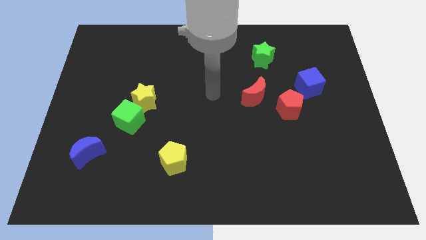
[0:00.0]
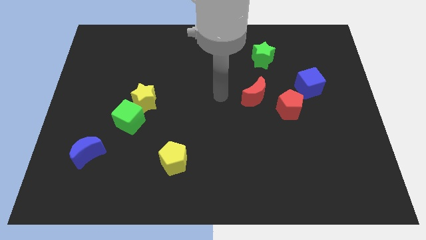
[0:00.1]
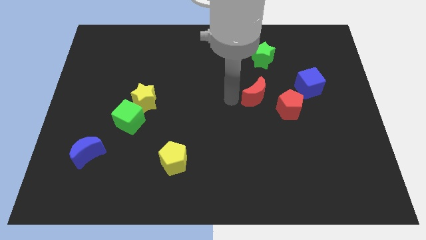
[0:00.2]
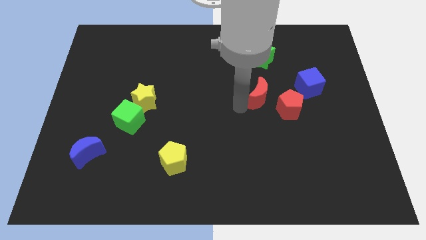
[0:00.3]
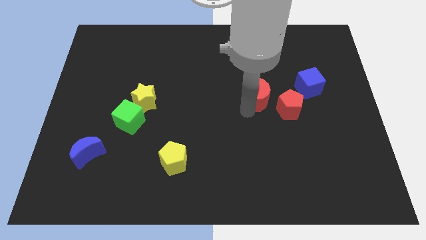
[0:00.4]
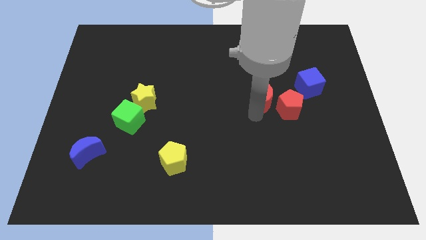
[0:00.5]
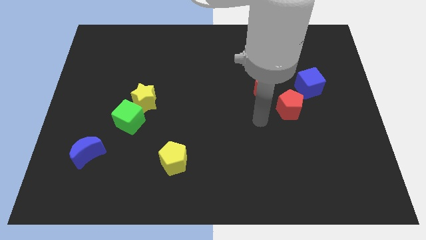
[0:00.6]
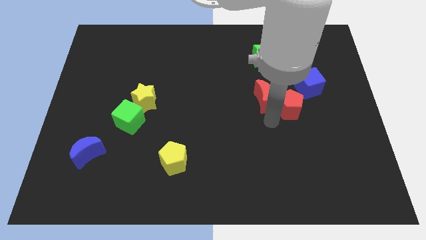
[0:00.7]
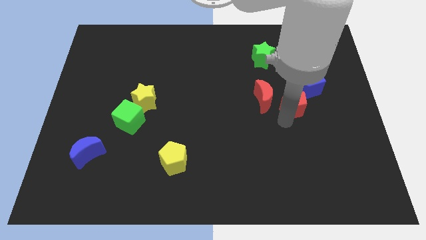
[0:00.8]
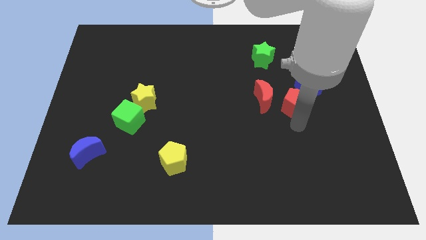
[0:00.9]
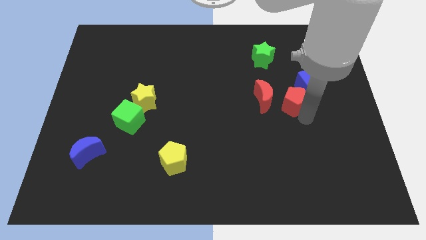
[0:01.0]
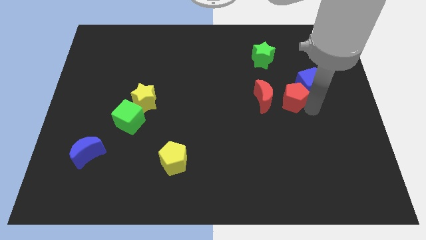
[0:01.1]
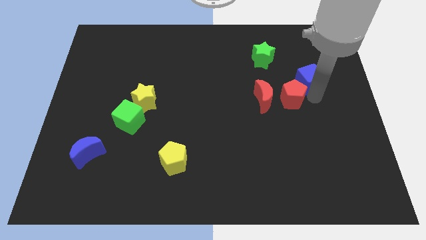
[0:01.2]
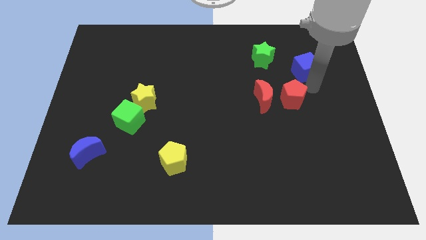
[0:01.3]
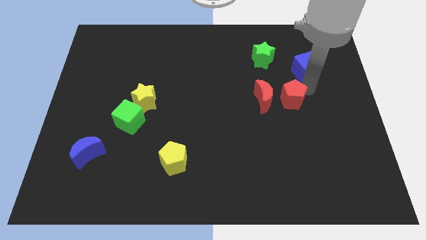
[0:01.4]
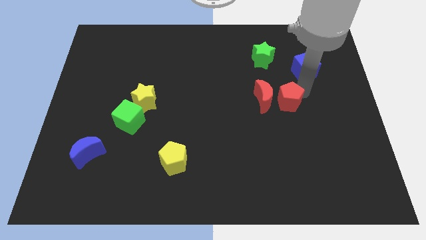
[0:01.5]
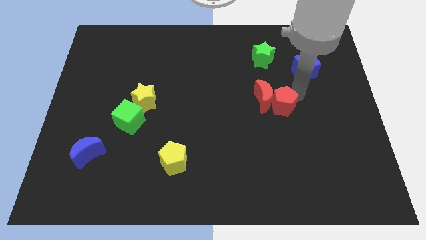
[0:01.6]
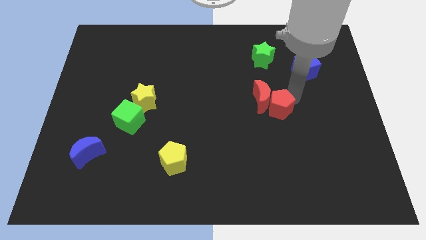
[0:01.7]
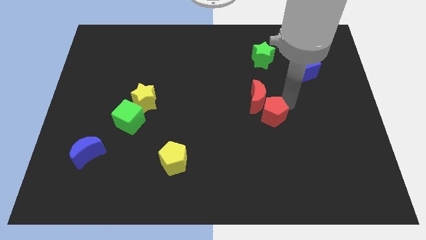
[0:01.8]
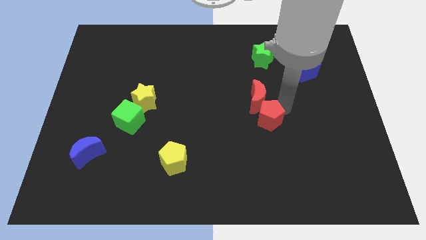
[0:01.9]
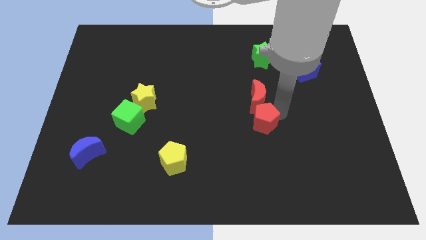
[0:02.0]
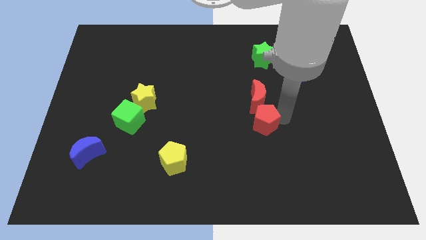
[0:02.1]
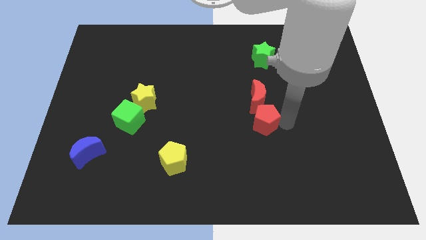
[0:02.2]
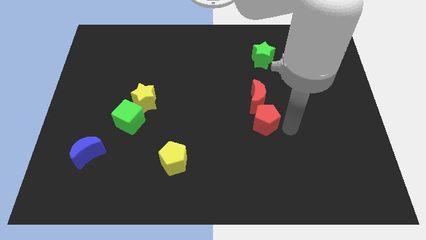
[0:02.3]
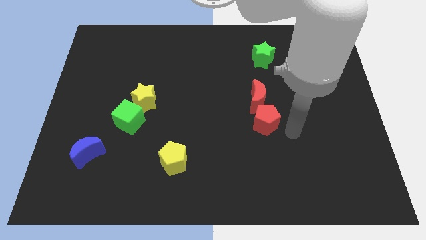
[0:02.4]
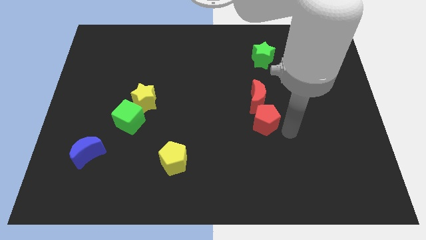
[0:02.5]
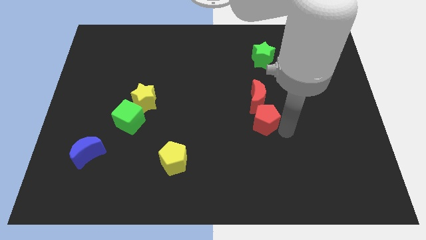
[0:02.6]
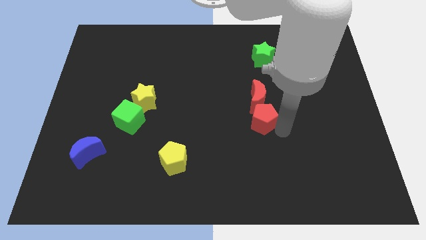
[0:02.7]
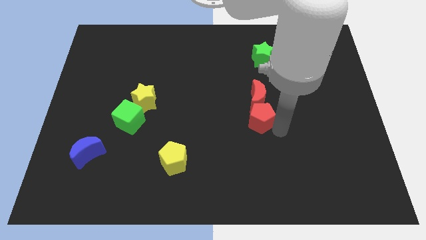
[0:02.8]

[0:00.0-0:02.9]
move the red pentagon to the left slightly

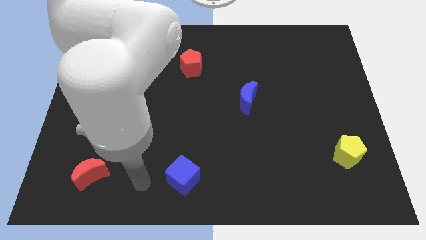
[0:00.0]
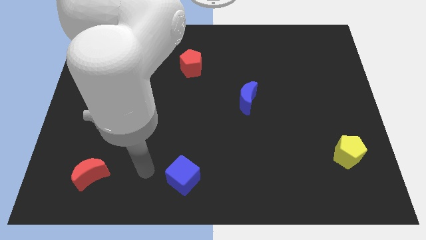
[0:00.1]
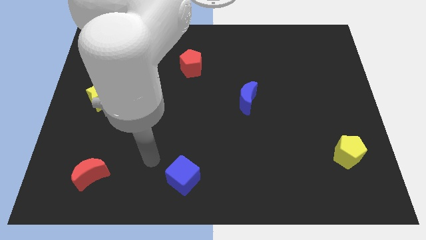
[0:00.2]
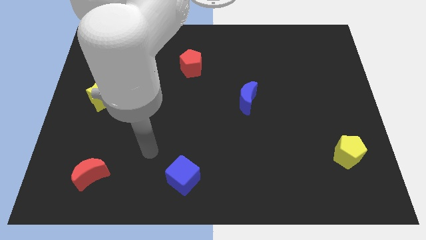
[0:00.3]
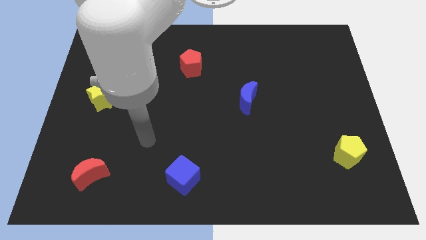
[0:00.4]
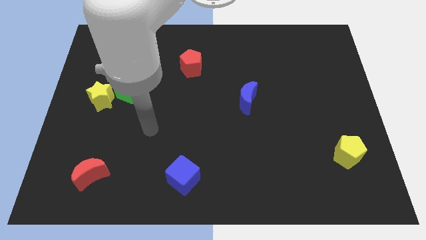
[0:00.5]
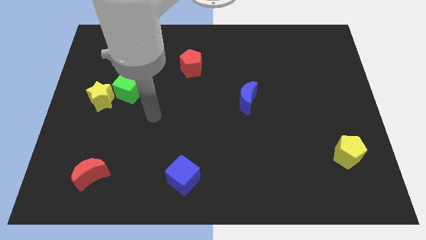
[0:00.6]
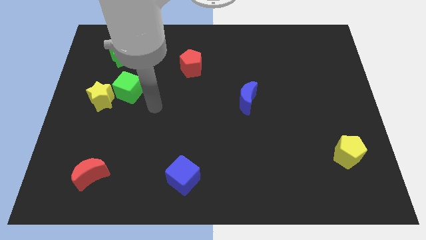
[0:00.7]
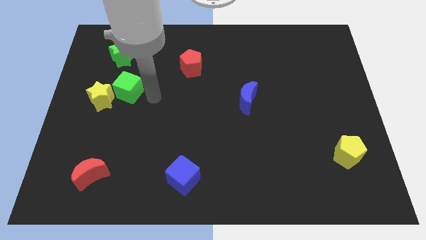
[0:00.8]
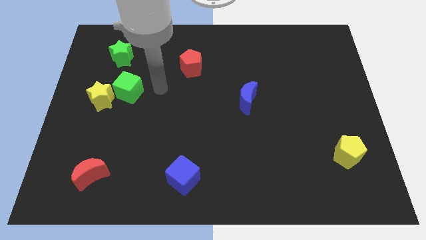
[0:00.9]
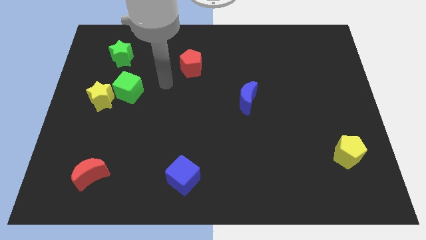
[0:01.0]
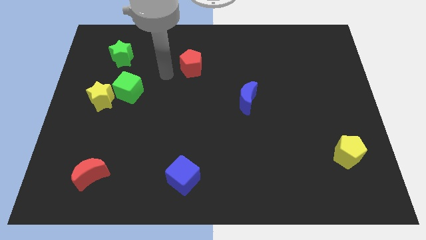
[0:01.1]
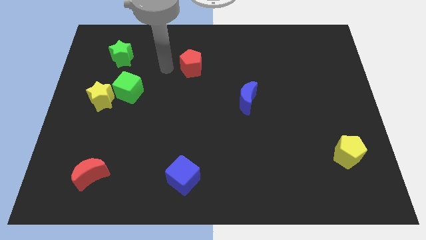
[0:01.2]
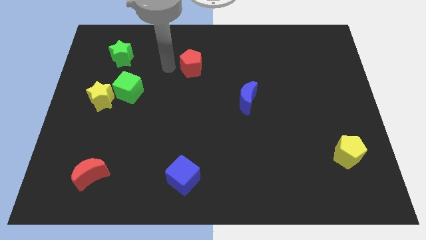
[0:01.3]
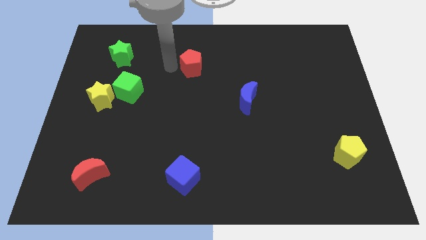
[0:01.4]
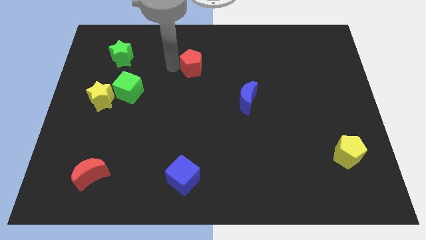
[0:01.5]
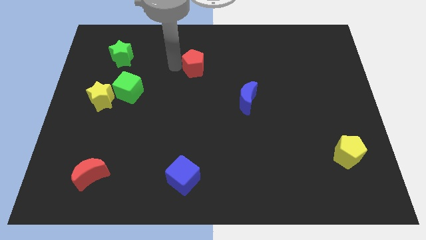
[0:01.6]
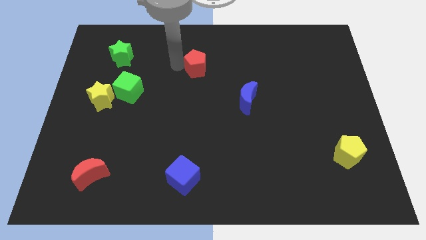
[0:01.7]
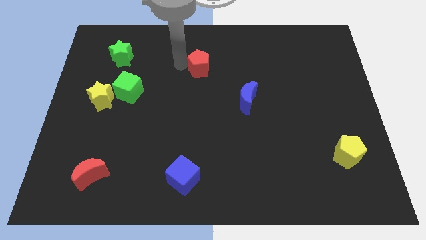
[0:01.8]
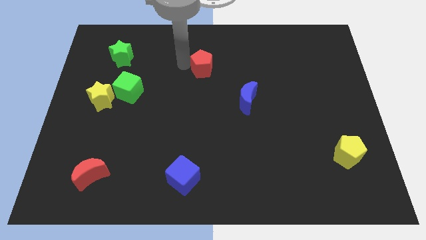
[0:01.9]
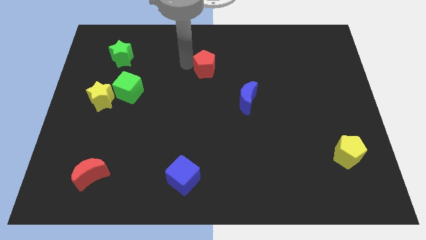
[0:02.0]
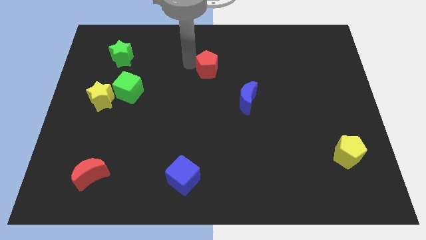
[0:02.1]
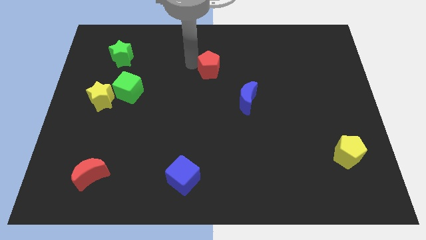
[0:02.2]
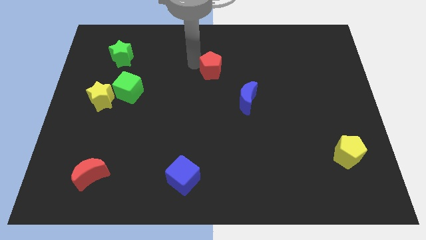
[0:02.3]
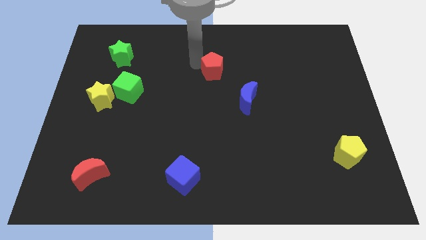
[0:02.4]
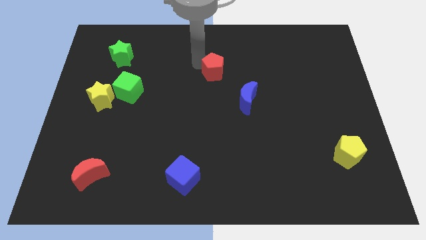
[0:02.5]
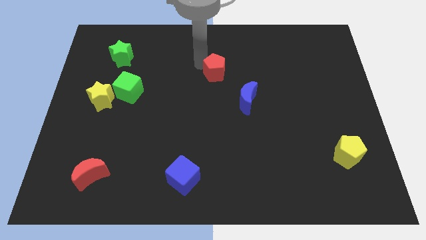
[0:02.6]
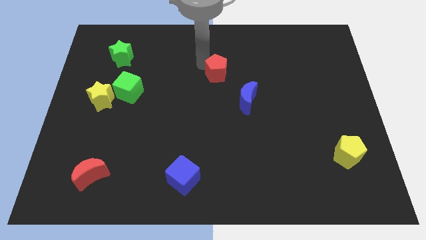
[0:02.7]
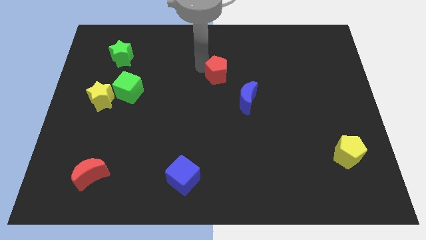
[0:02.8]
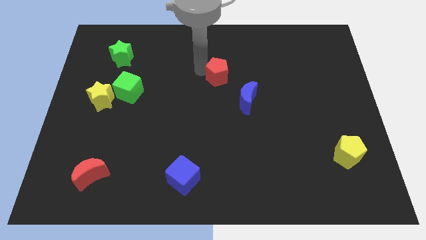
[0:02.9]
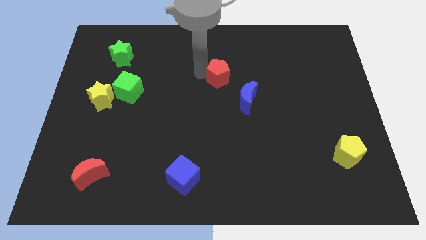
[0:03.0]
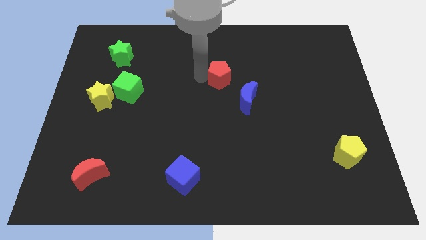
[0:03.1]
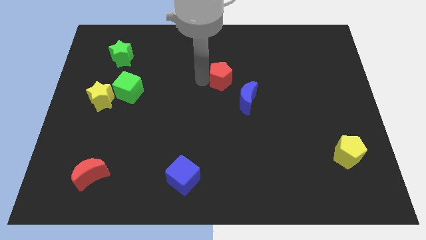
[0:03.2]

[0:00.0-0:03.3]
slightly move the red pentagon right

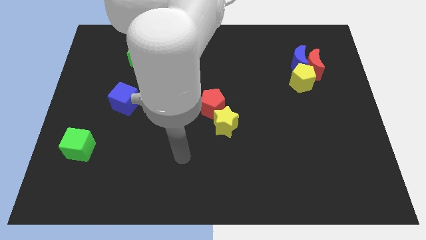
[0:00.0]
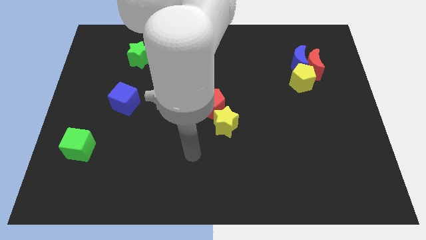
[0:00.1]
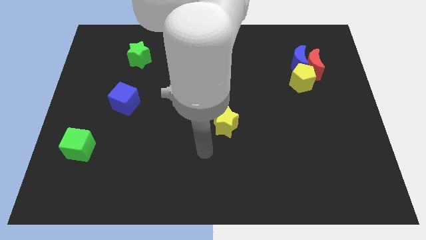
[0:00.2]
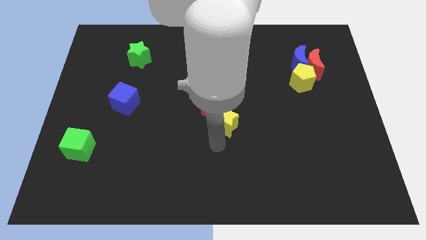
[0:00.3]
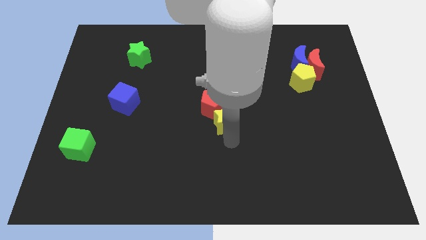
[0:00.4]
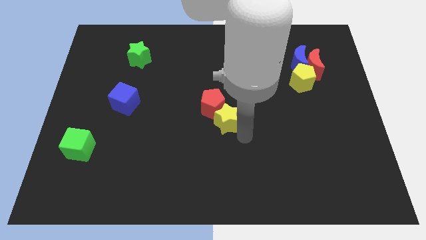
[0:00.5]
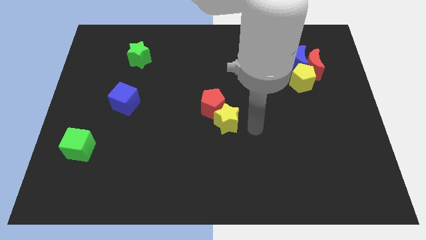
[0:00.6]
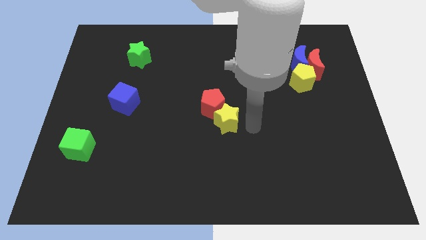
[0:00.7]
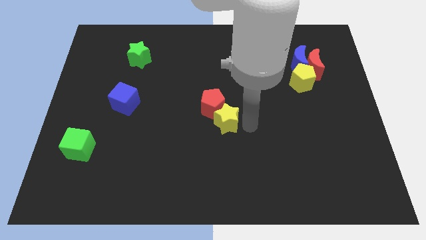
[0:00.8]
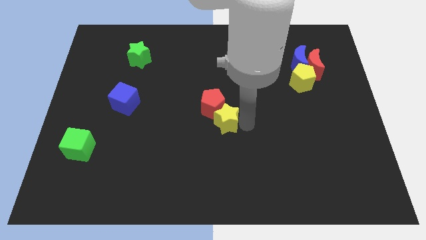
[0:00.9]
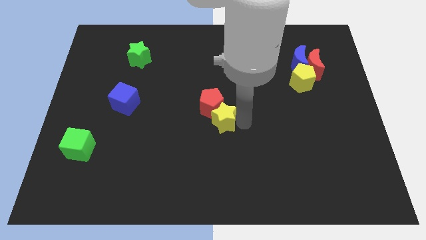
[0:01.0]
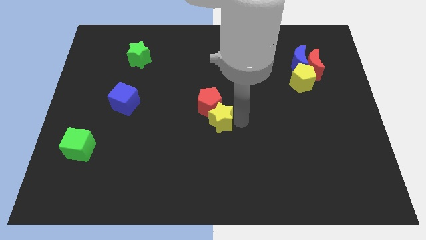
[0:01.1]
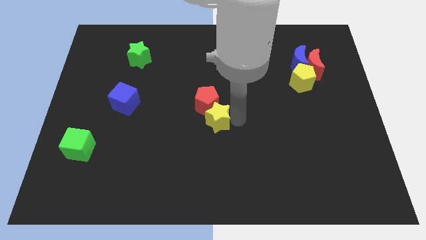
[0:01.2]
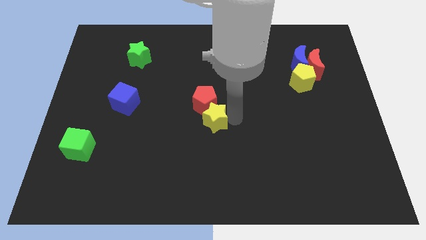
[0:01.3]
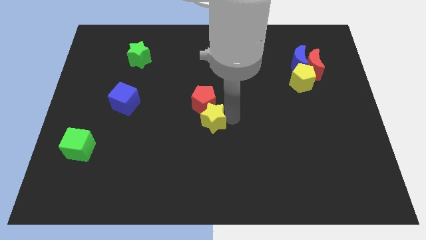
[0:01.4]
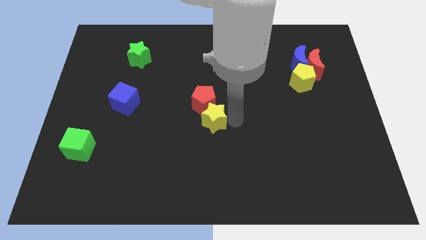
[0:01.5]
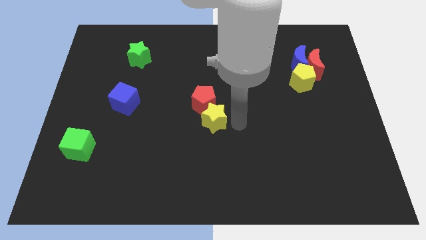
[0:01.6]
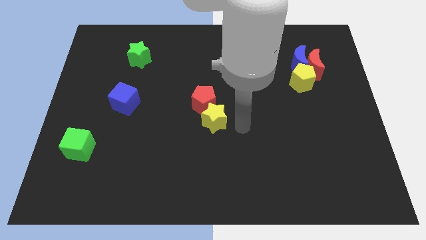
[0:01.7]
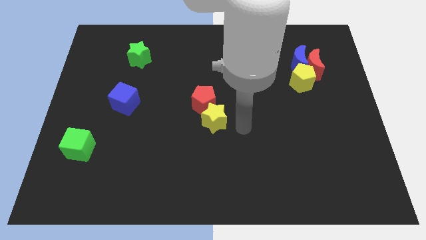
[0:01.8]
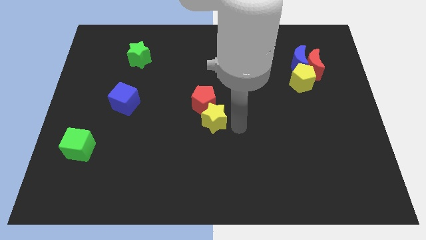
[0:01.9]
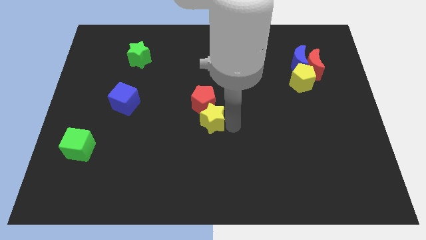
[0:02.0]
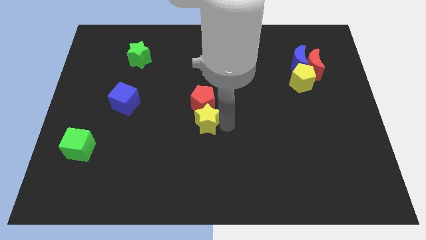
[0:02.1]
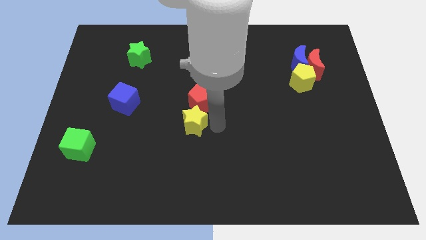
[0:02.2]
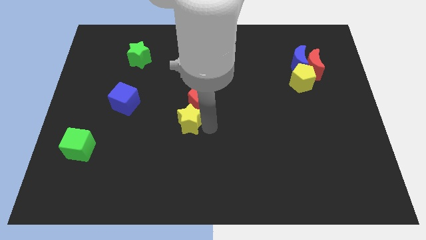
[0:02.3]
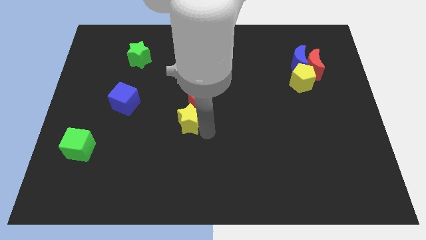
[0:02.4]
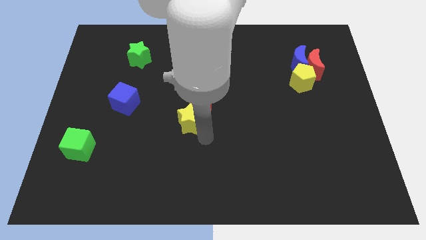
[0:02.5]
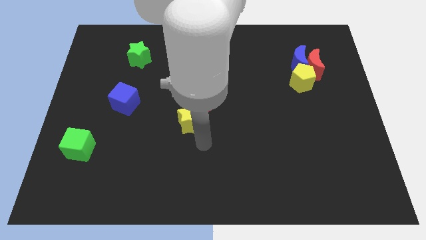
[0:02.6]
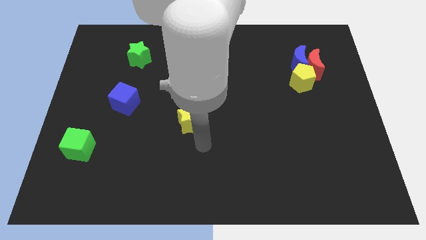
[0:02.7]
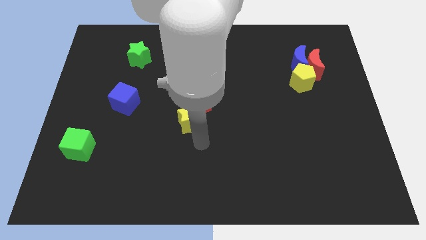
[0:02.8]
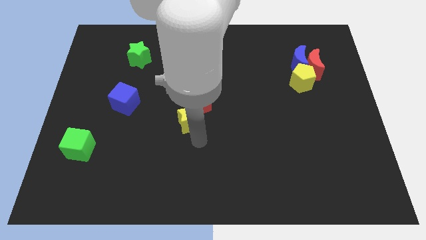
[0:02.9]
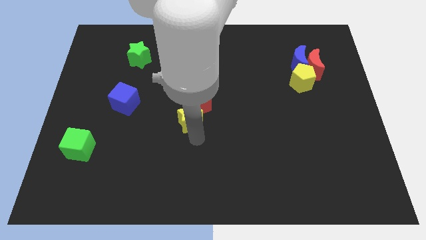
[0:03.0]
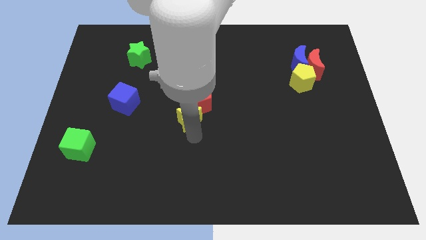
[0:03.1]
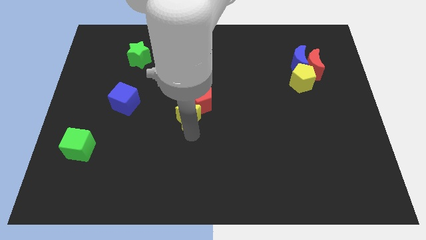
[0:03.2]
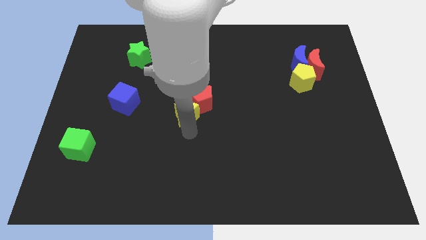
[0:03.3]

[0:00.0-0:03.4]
slightly move the yellow star up and left diagonally
